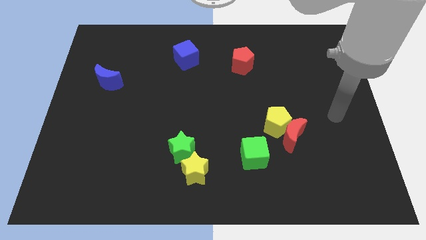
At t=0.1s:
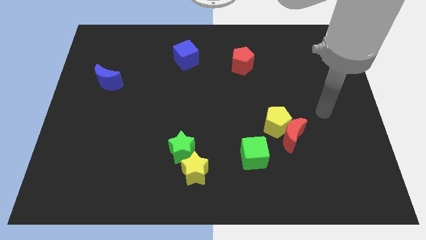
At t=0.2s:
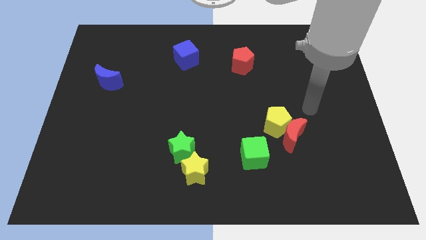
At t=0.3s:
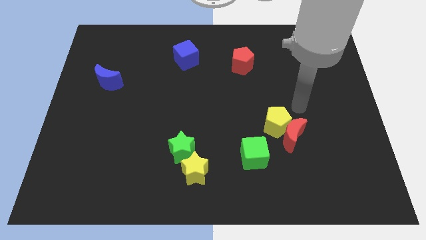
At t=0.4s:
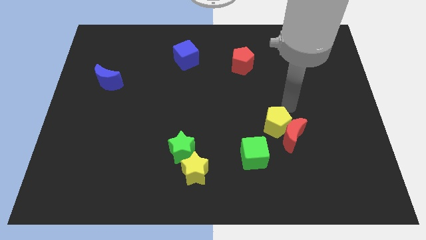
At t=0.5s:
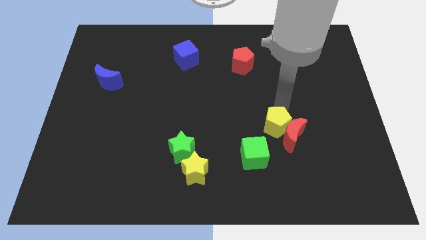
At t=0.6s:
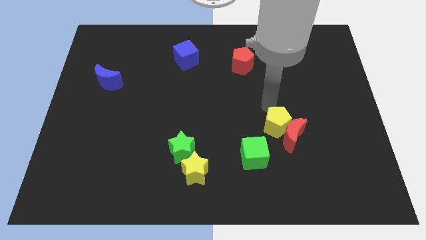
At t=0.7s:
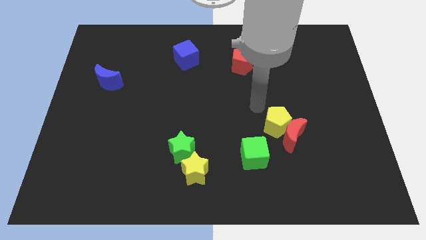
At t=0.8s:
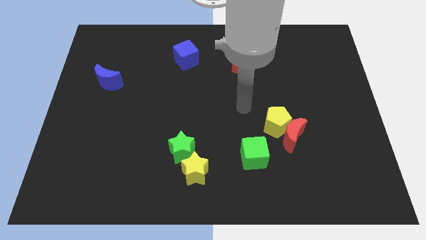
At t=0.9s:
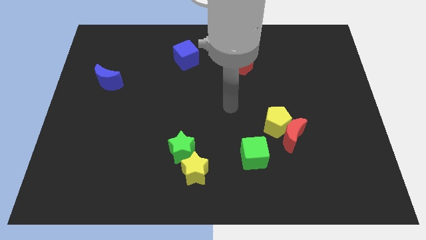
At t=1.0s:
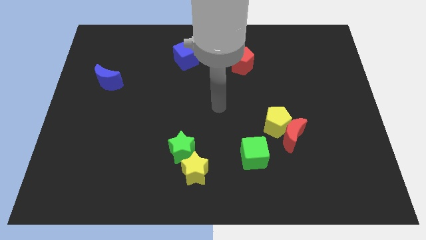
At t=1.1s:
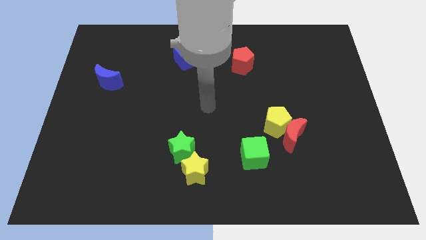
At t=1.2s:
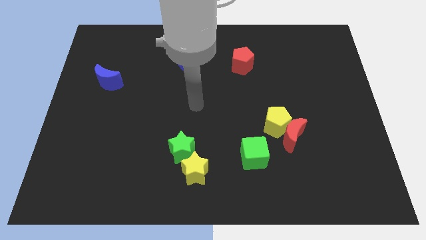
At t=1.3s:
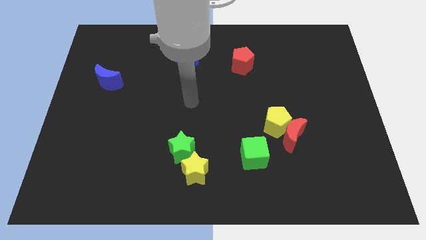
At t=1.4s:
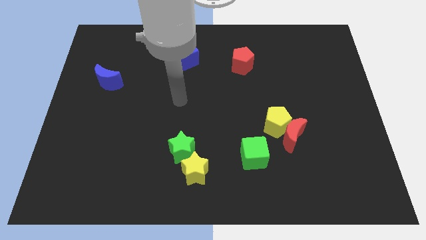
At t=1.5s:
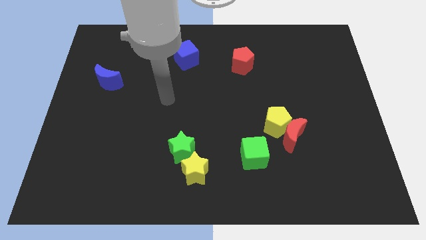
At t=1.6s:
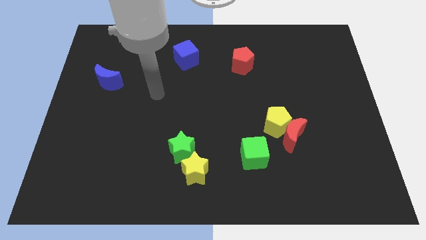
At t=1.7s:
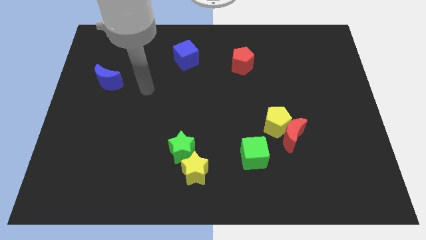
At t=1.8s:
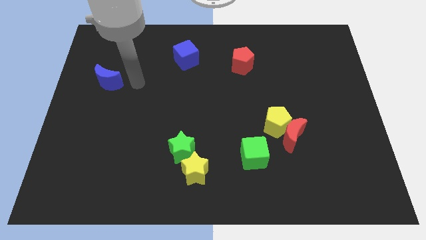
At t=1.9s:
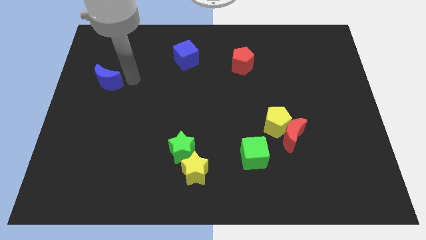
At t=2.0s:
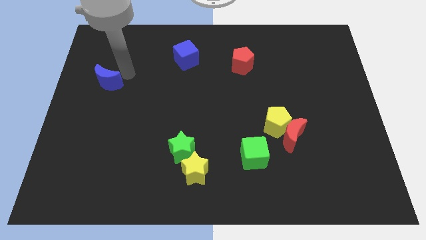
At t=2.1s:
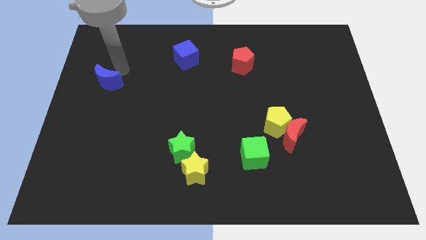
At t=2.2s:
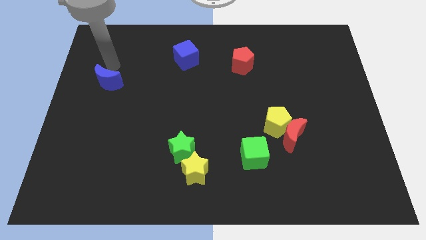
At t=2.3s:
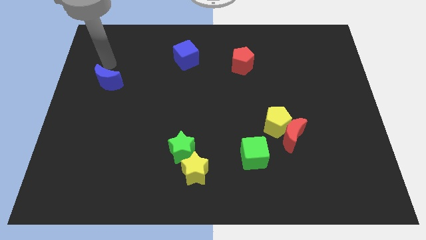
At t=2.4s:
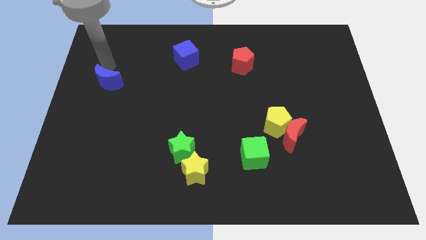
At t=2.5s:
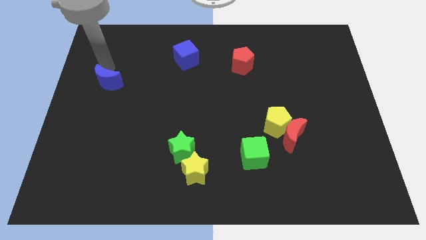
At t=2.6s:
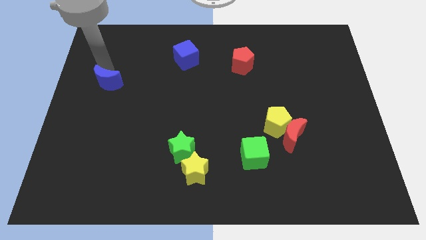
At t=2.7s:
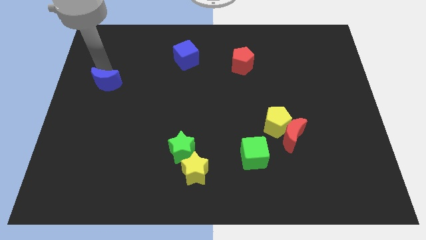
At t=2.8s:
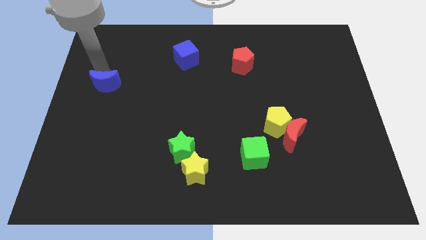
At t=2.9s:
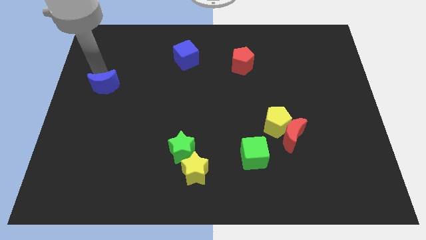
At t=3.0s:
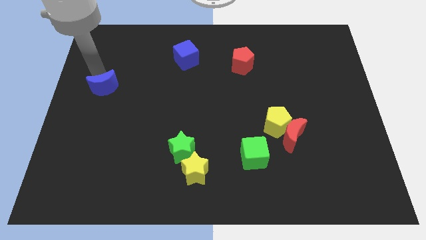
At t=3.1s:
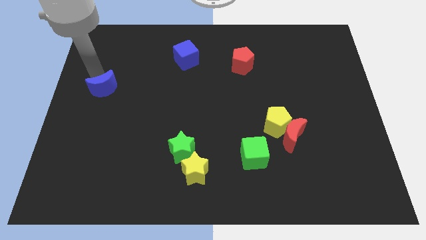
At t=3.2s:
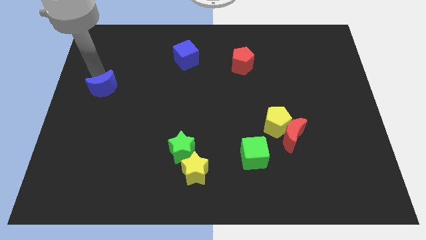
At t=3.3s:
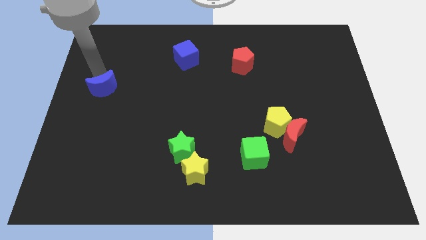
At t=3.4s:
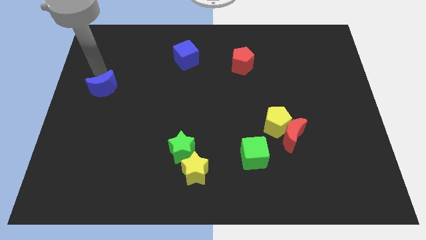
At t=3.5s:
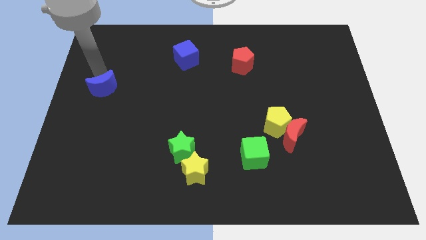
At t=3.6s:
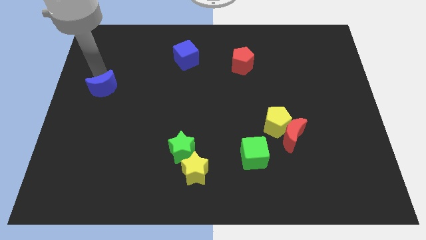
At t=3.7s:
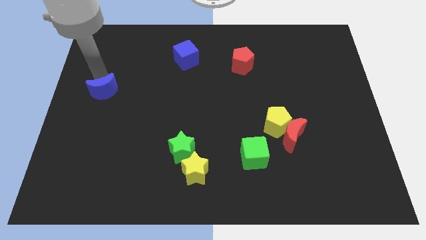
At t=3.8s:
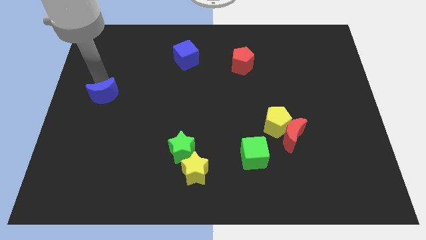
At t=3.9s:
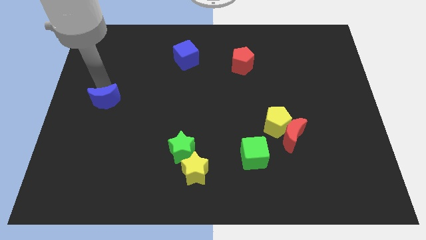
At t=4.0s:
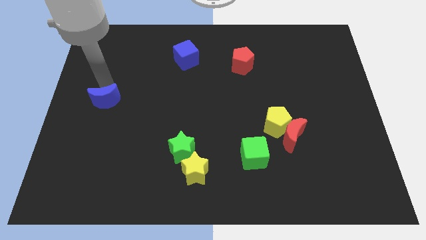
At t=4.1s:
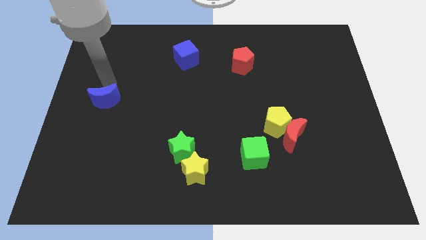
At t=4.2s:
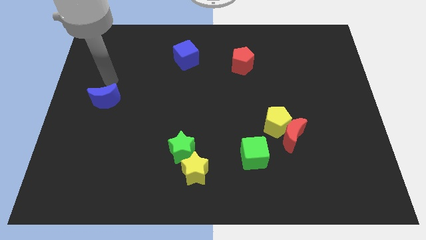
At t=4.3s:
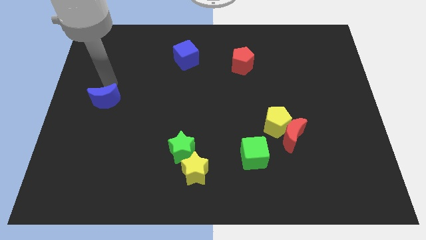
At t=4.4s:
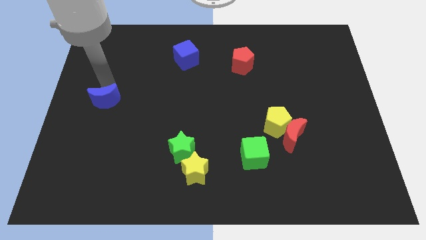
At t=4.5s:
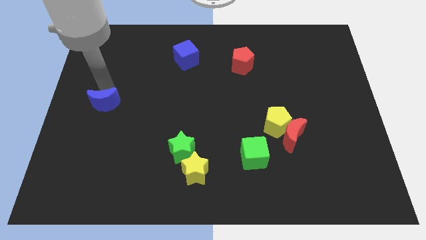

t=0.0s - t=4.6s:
slightly move the blue moon downwards

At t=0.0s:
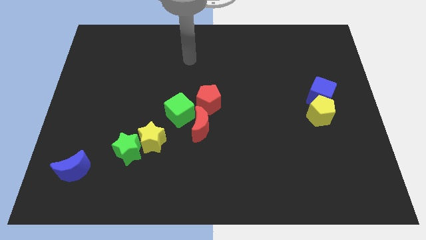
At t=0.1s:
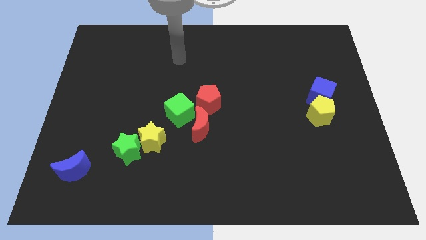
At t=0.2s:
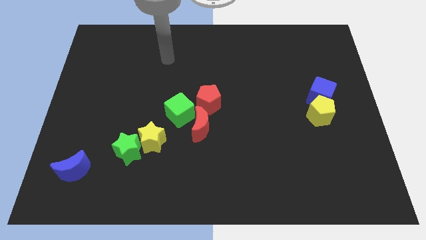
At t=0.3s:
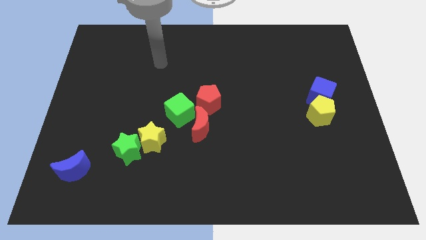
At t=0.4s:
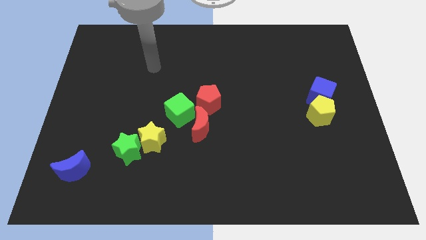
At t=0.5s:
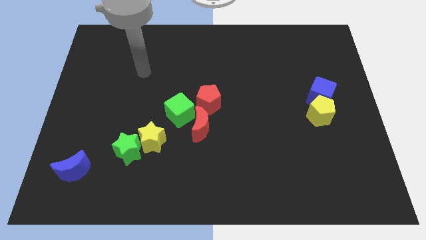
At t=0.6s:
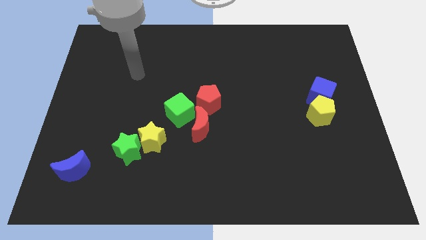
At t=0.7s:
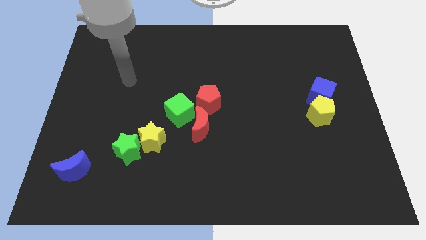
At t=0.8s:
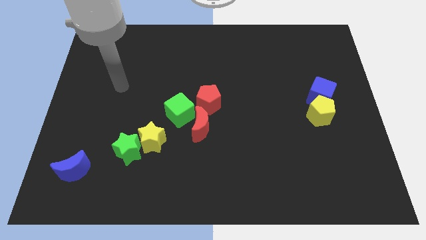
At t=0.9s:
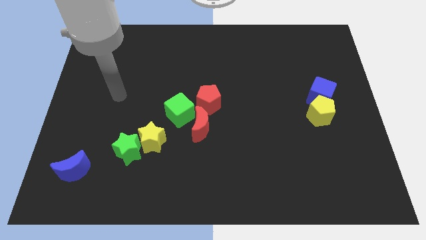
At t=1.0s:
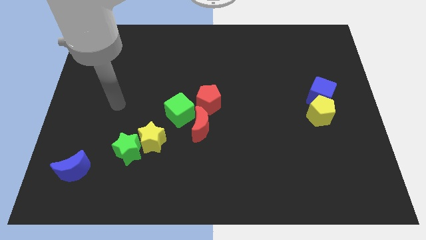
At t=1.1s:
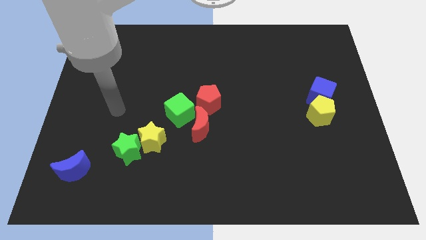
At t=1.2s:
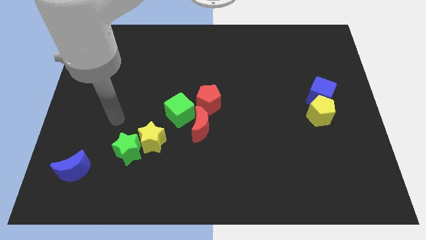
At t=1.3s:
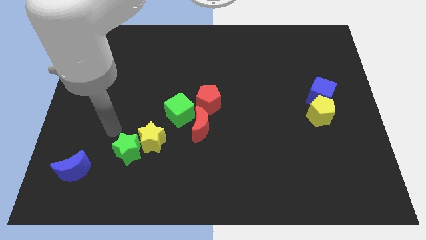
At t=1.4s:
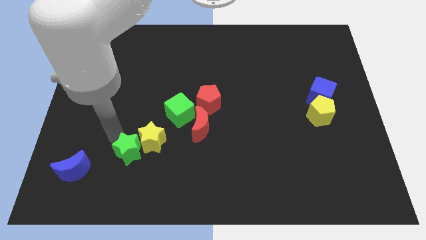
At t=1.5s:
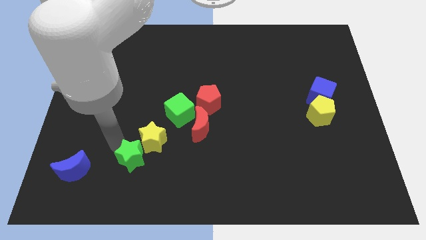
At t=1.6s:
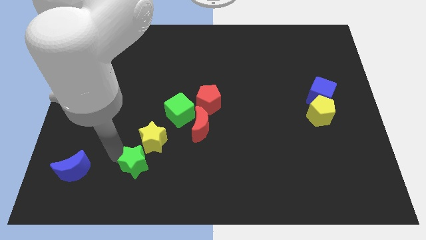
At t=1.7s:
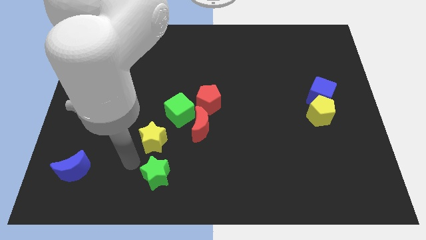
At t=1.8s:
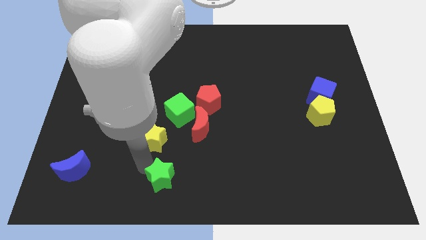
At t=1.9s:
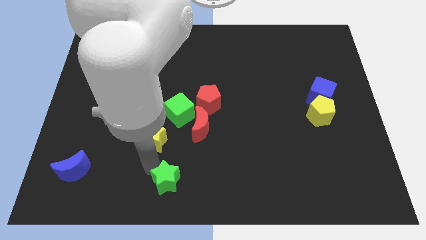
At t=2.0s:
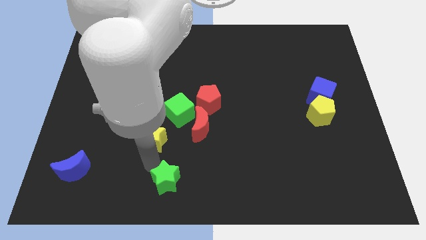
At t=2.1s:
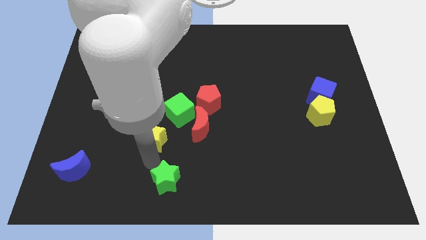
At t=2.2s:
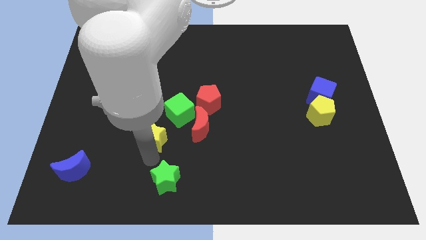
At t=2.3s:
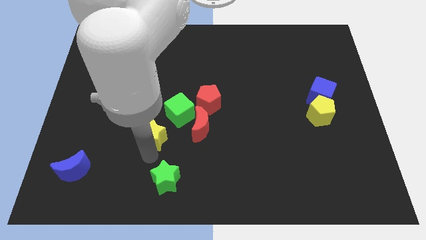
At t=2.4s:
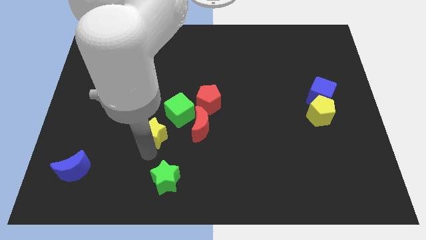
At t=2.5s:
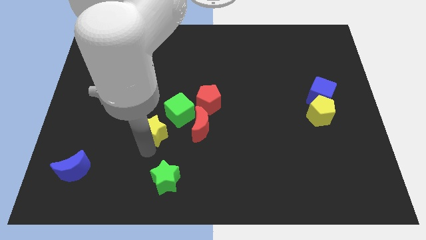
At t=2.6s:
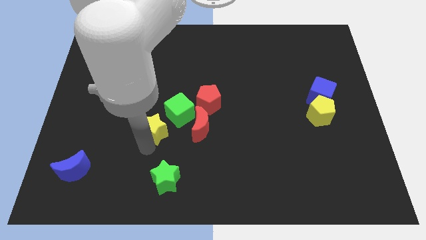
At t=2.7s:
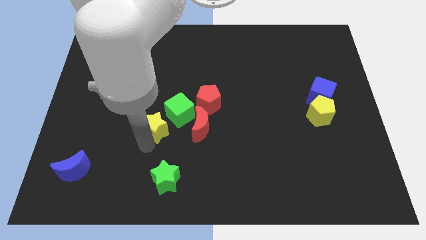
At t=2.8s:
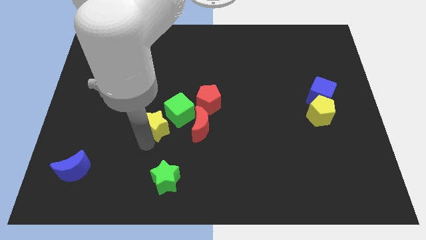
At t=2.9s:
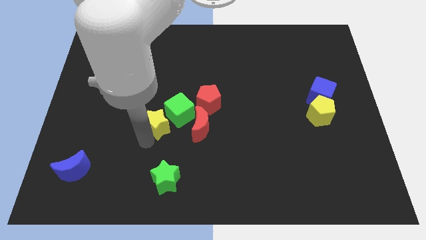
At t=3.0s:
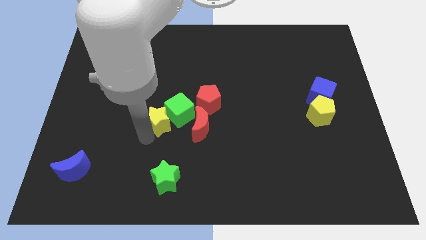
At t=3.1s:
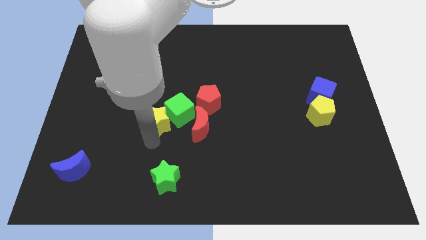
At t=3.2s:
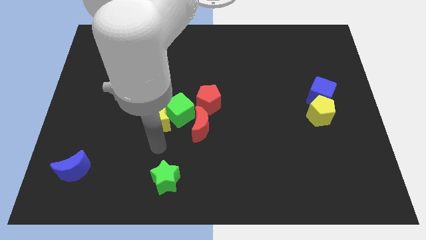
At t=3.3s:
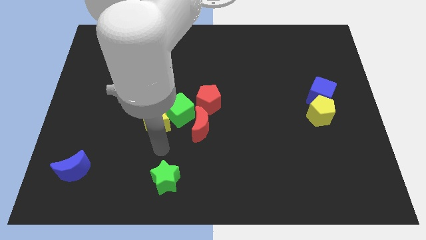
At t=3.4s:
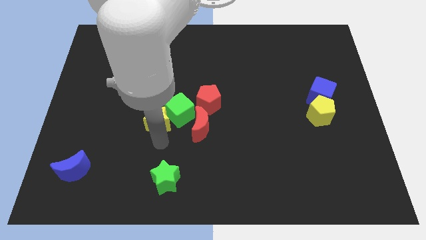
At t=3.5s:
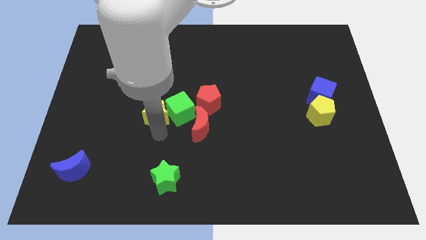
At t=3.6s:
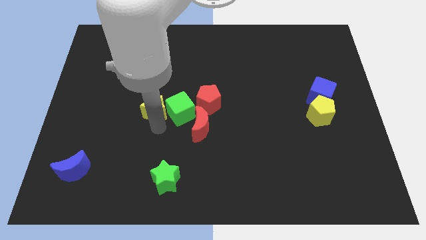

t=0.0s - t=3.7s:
move the yellow star a little upwards
